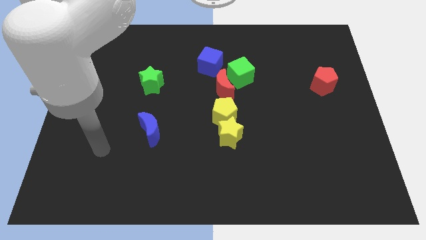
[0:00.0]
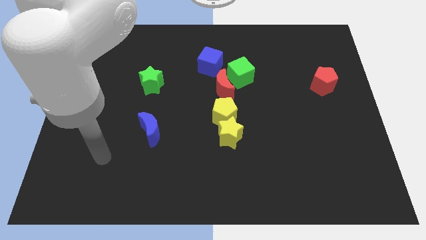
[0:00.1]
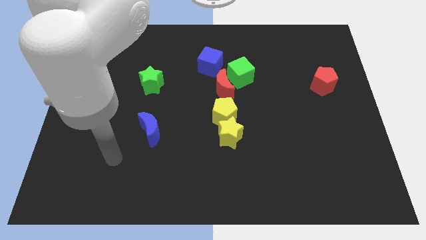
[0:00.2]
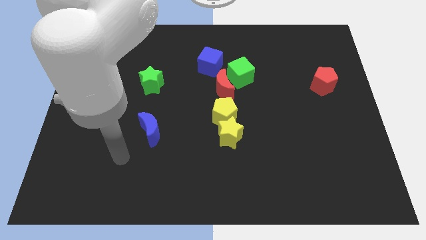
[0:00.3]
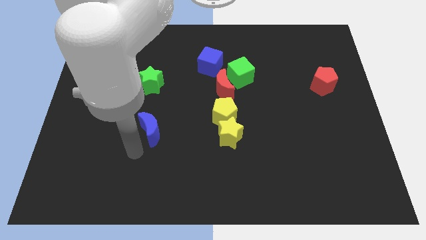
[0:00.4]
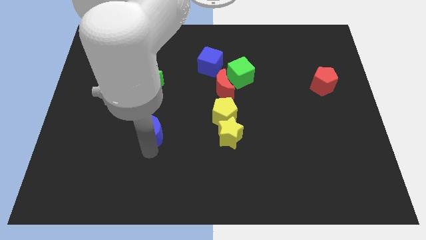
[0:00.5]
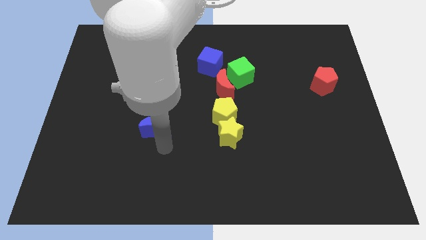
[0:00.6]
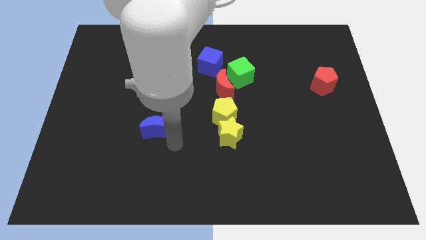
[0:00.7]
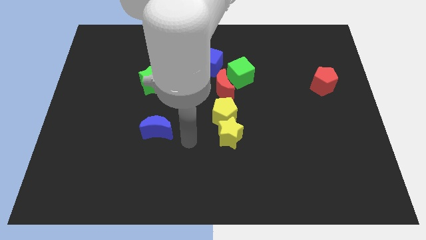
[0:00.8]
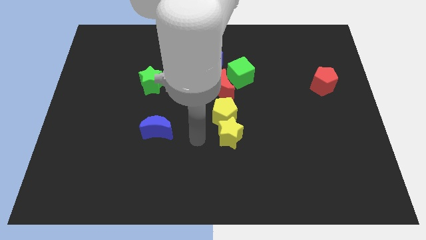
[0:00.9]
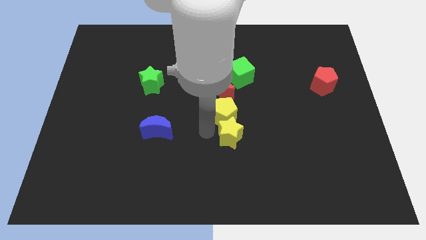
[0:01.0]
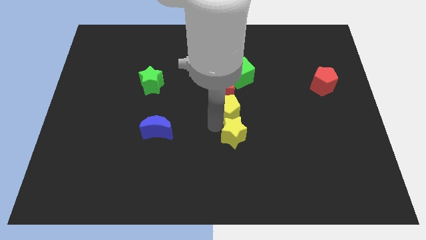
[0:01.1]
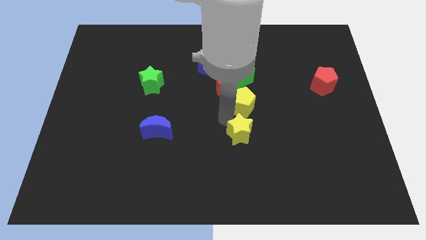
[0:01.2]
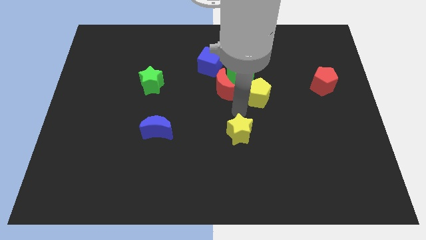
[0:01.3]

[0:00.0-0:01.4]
separate the yellow star from the yellow pentagon

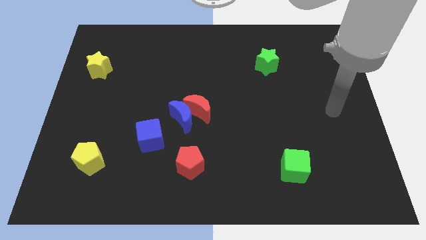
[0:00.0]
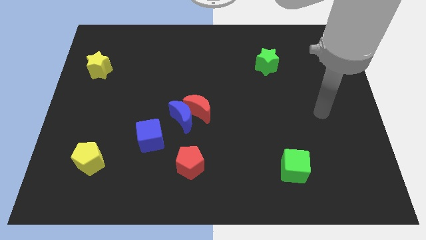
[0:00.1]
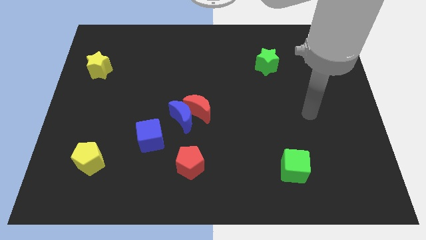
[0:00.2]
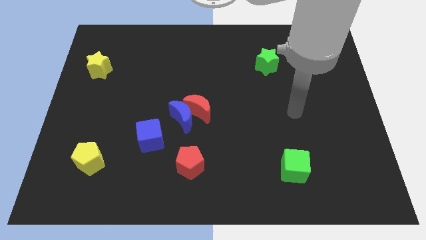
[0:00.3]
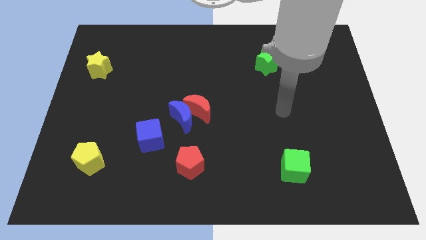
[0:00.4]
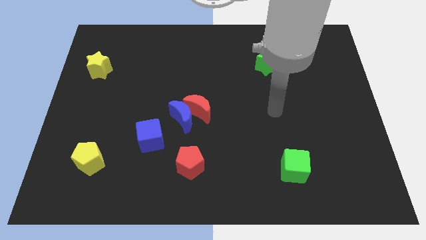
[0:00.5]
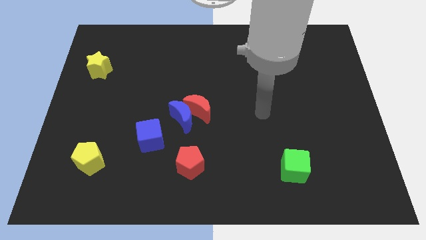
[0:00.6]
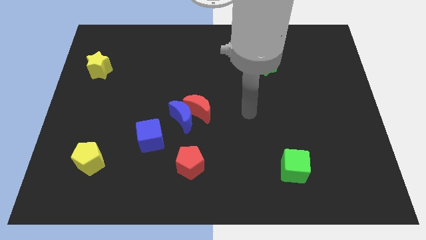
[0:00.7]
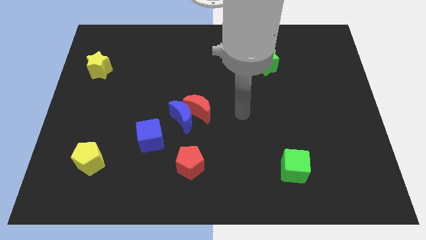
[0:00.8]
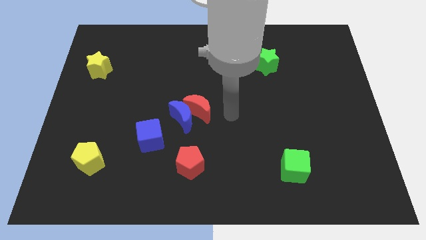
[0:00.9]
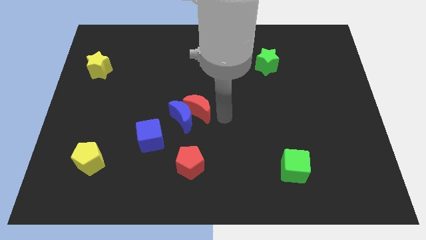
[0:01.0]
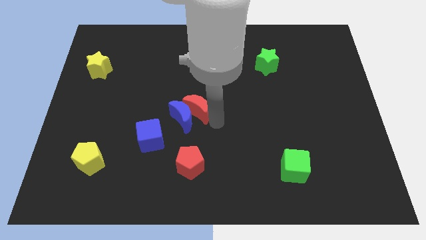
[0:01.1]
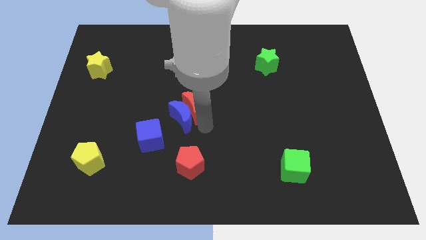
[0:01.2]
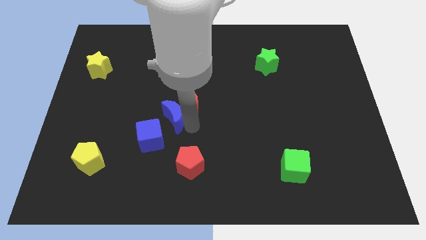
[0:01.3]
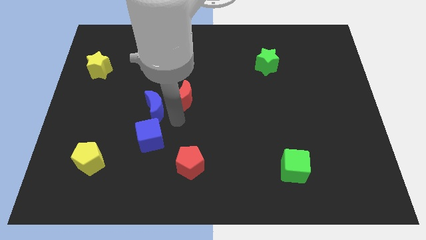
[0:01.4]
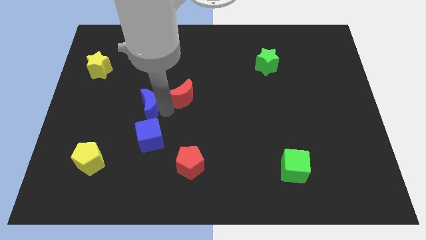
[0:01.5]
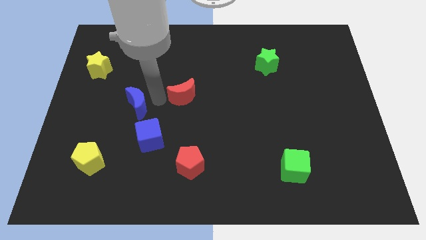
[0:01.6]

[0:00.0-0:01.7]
move the red moon away from the blue moon

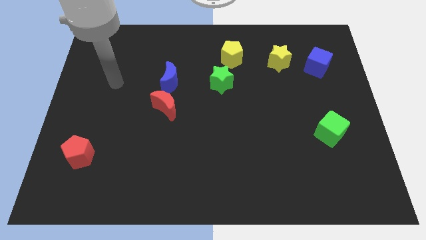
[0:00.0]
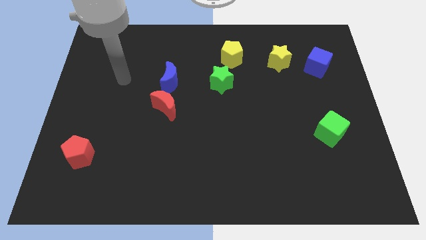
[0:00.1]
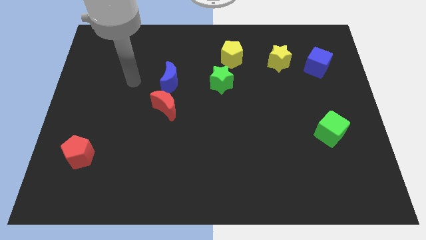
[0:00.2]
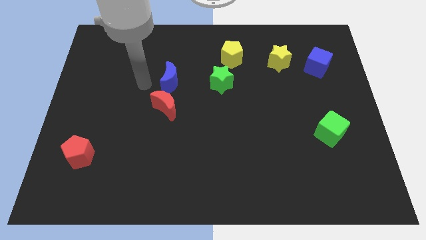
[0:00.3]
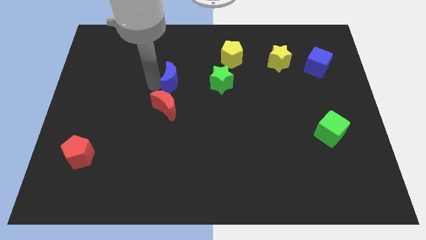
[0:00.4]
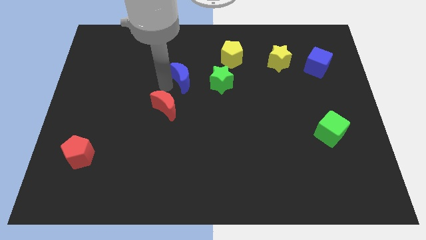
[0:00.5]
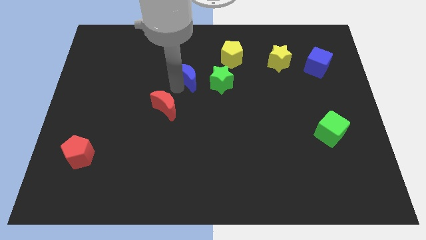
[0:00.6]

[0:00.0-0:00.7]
pull the red moon apart from the blue moon

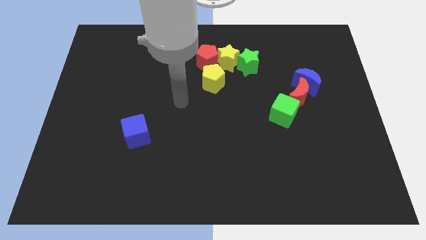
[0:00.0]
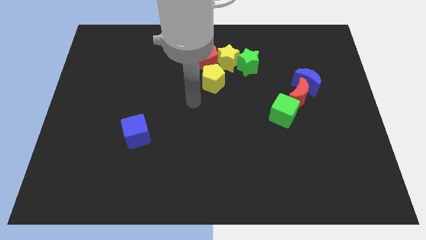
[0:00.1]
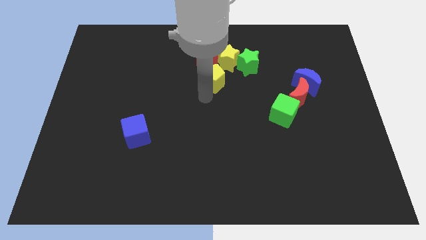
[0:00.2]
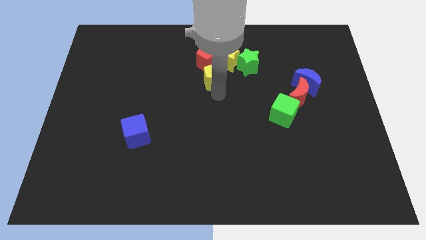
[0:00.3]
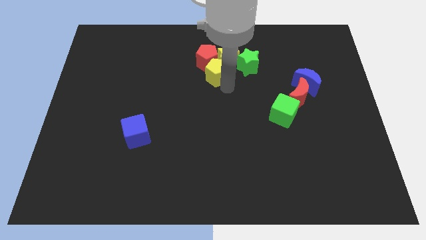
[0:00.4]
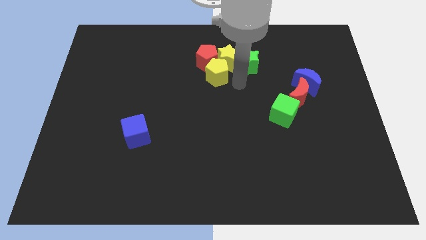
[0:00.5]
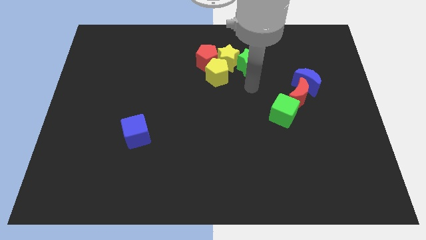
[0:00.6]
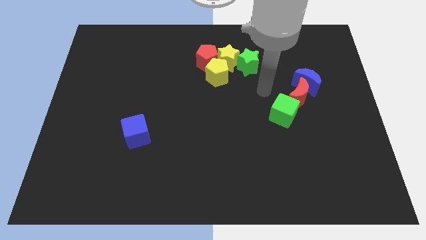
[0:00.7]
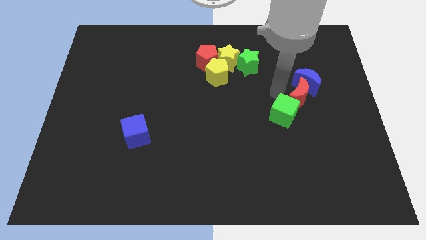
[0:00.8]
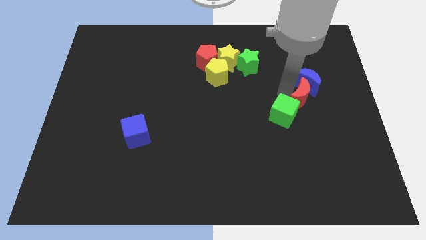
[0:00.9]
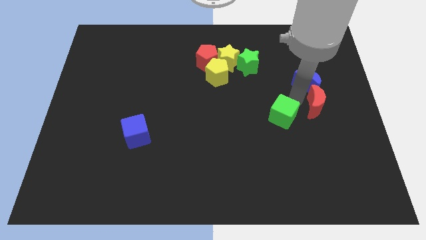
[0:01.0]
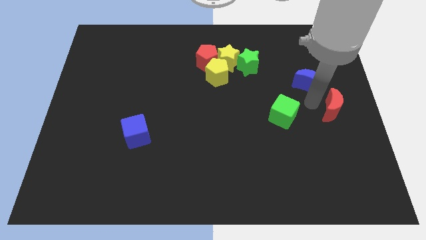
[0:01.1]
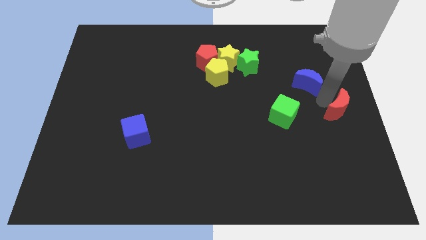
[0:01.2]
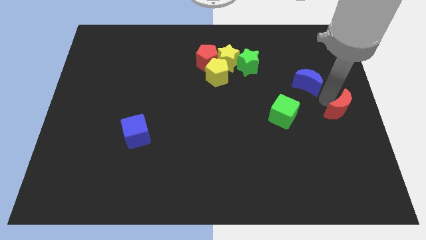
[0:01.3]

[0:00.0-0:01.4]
pull the blue moon apart from the red moon

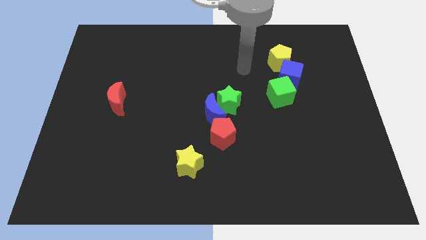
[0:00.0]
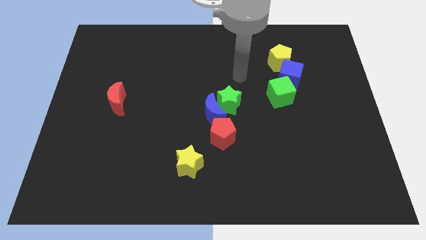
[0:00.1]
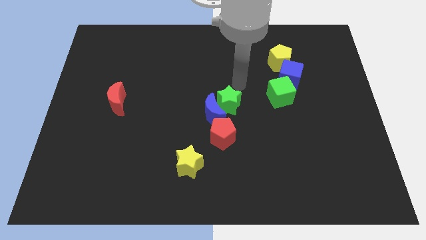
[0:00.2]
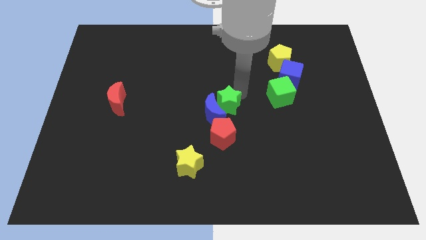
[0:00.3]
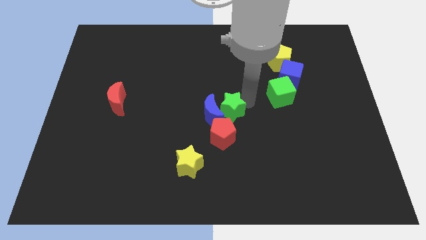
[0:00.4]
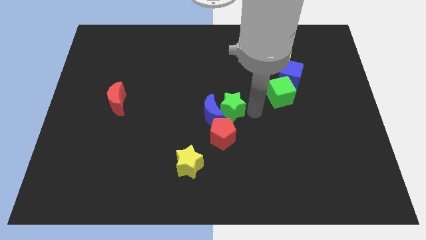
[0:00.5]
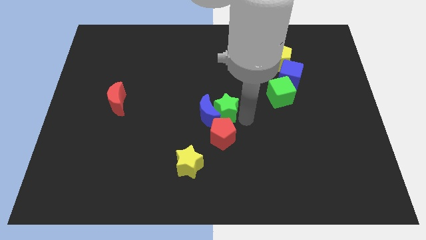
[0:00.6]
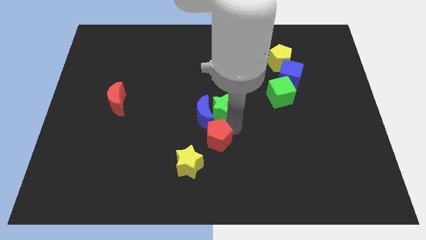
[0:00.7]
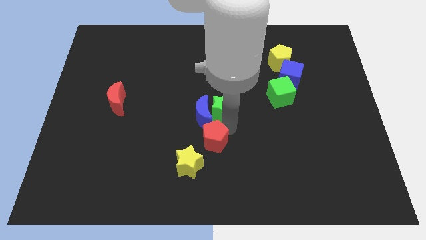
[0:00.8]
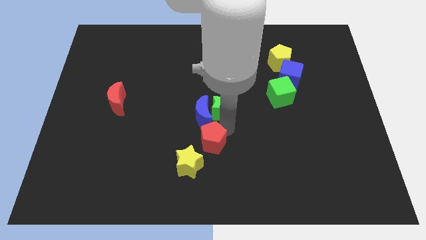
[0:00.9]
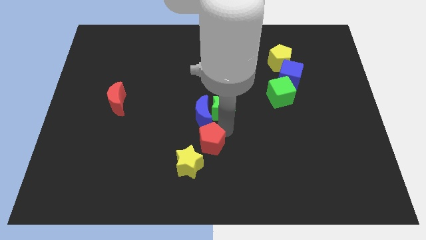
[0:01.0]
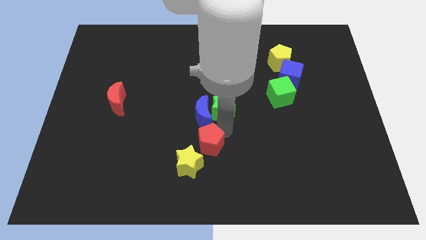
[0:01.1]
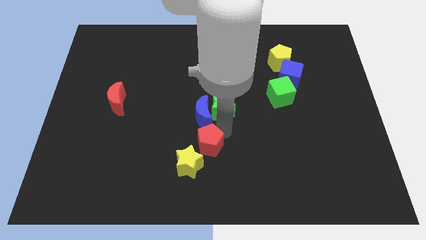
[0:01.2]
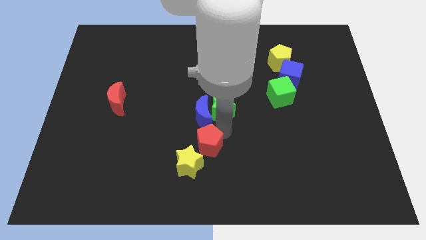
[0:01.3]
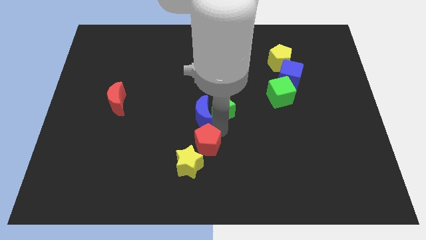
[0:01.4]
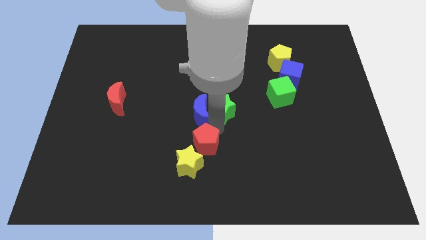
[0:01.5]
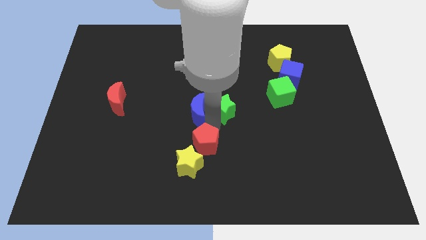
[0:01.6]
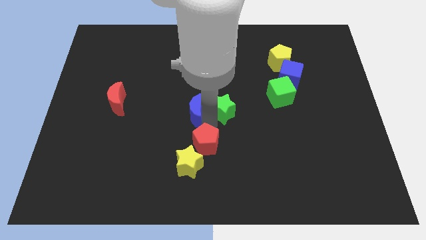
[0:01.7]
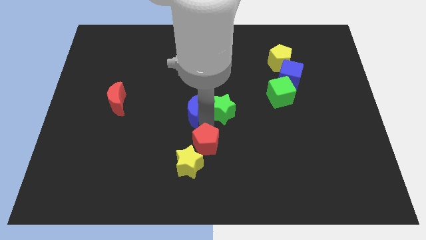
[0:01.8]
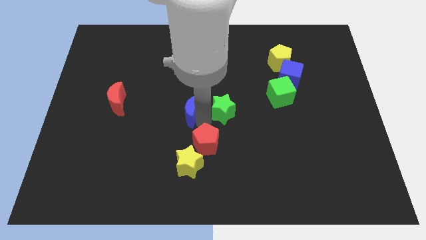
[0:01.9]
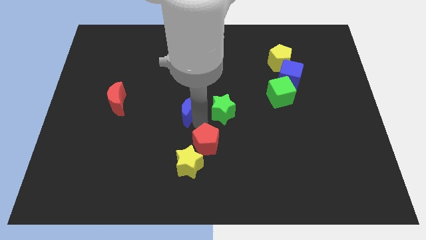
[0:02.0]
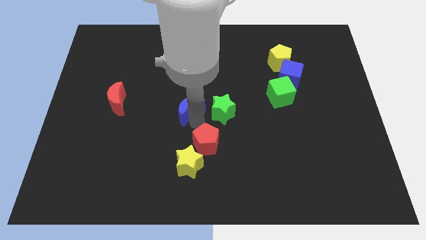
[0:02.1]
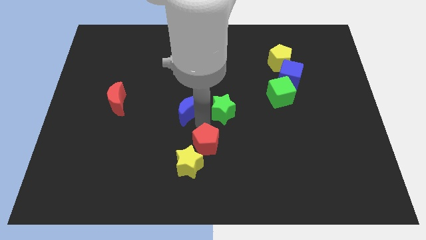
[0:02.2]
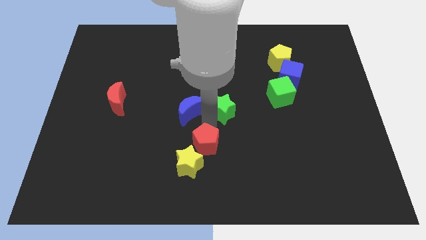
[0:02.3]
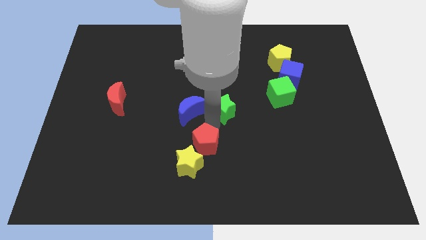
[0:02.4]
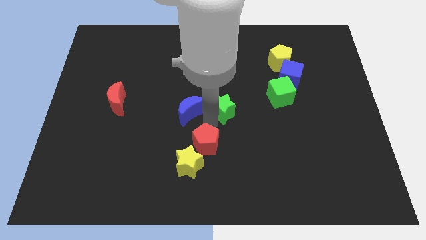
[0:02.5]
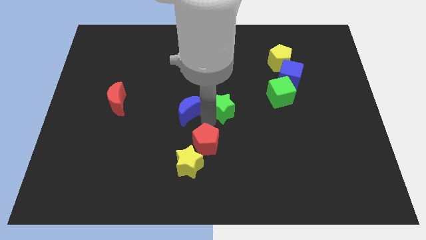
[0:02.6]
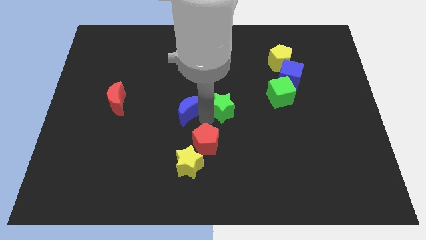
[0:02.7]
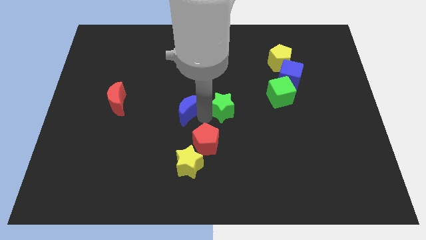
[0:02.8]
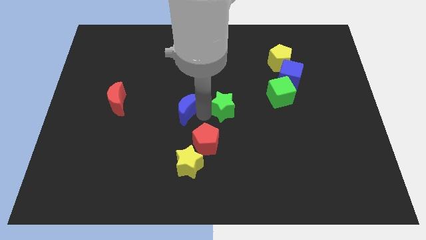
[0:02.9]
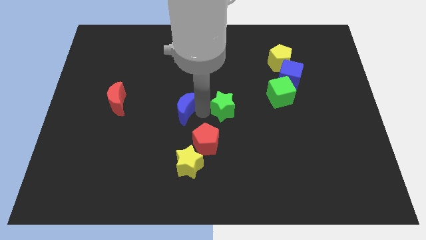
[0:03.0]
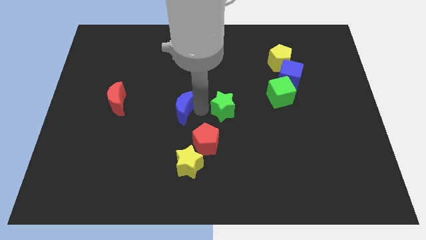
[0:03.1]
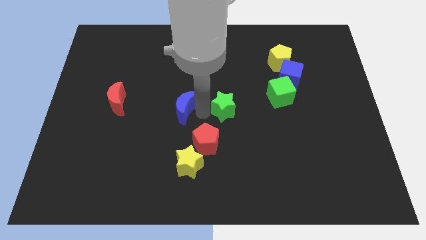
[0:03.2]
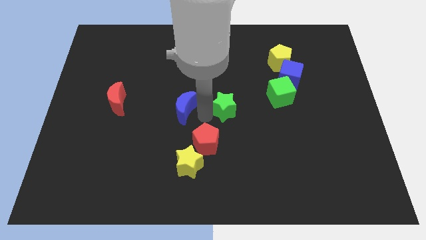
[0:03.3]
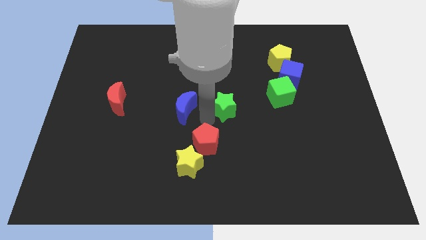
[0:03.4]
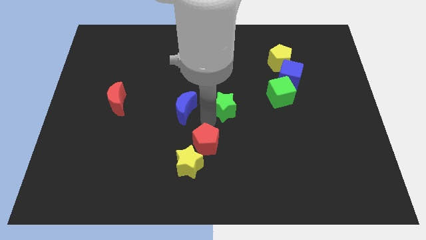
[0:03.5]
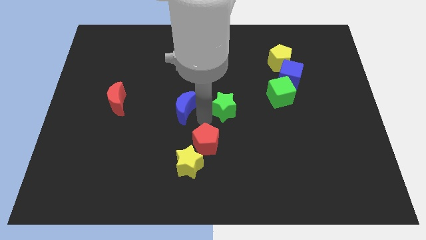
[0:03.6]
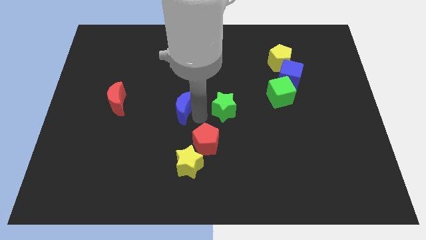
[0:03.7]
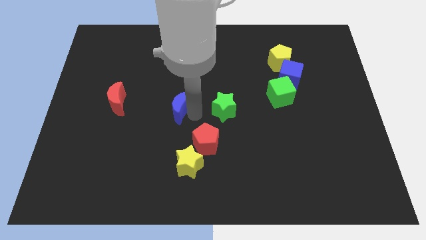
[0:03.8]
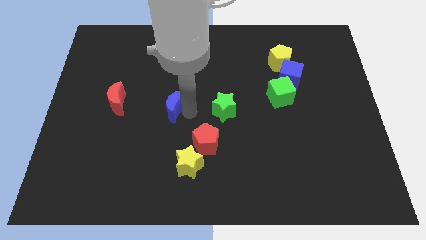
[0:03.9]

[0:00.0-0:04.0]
pull the blue moon apart from the green star and red pentagon

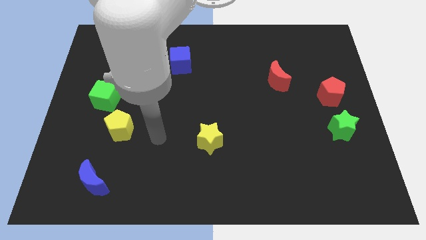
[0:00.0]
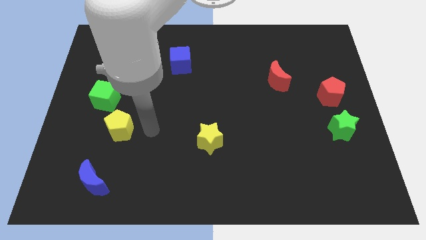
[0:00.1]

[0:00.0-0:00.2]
move the green cube away from the yellow pentagon
